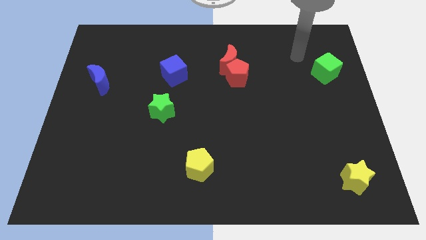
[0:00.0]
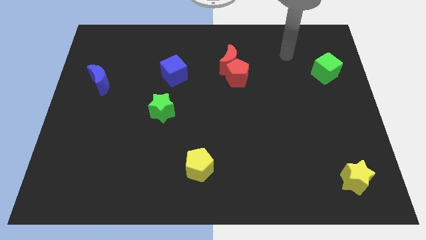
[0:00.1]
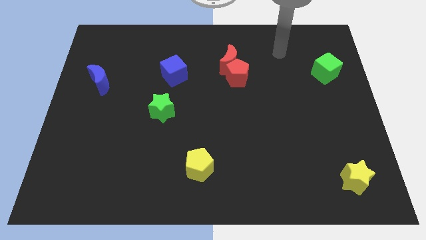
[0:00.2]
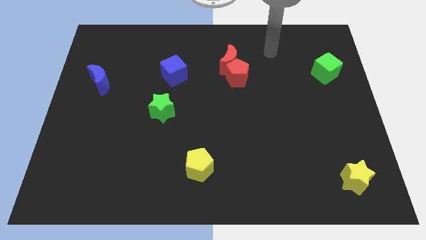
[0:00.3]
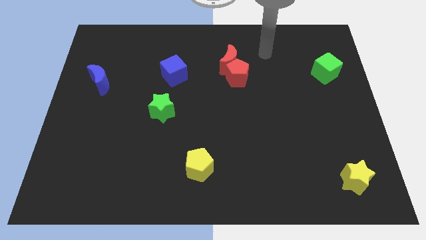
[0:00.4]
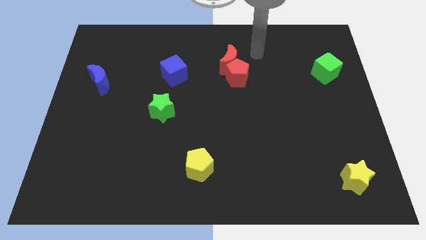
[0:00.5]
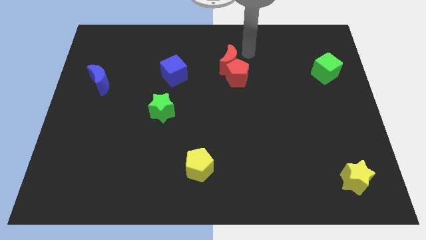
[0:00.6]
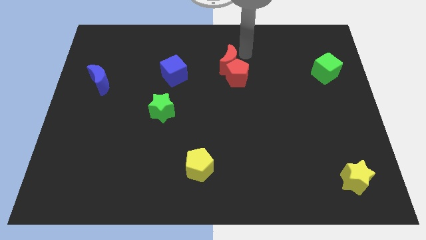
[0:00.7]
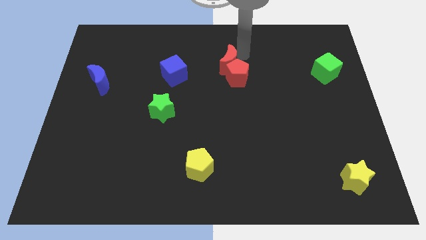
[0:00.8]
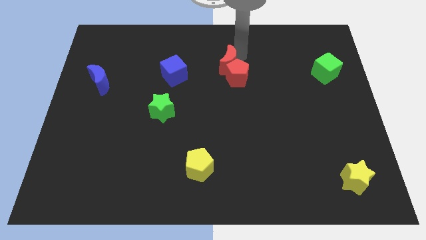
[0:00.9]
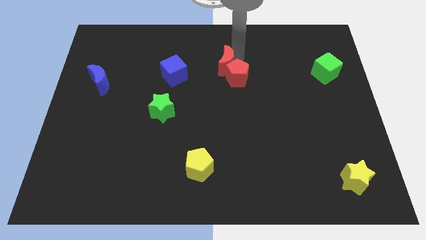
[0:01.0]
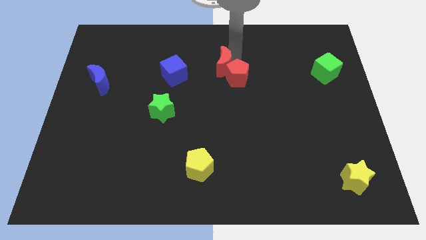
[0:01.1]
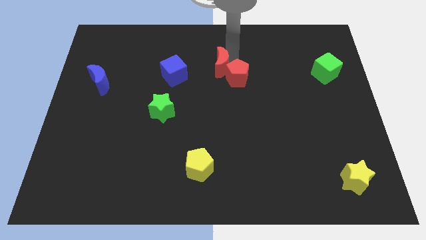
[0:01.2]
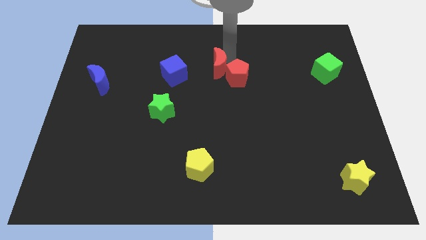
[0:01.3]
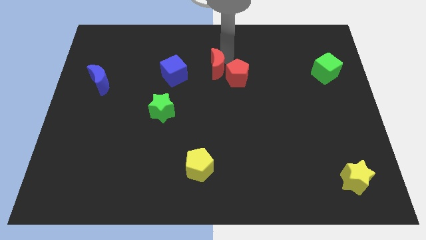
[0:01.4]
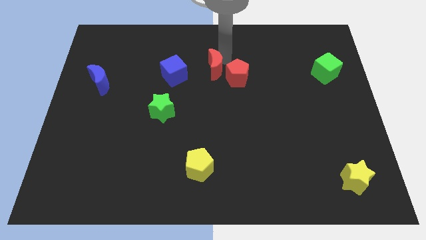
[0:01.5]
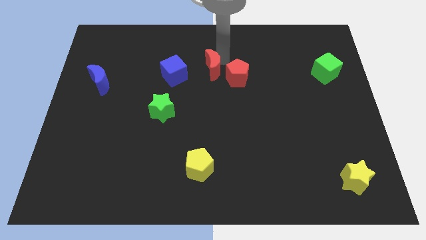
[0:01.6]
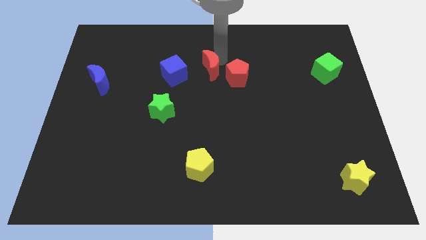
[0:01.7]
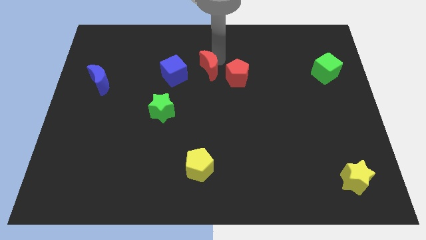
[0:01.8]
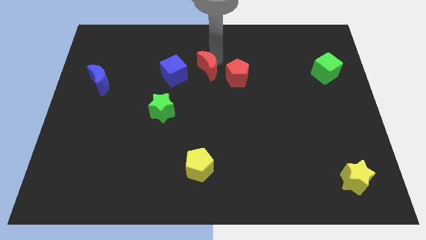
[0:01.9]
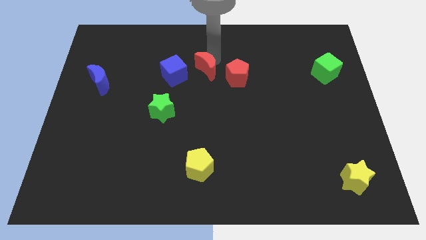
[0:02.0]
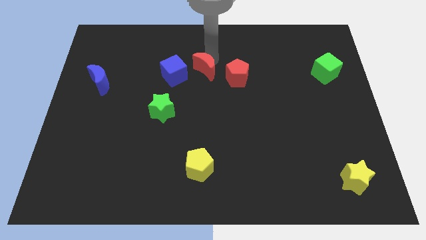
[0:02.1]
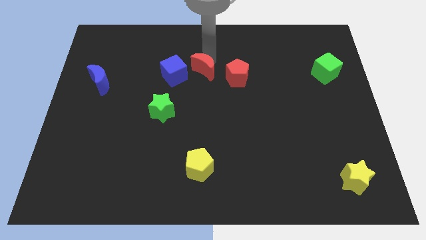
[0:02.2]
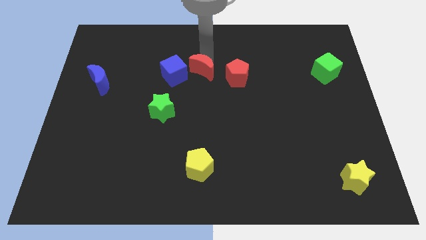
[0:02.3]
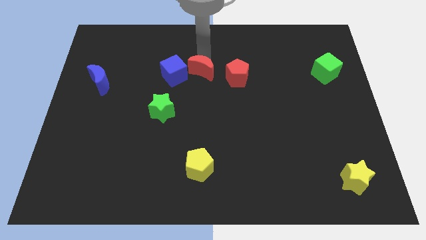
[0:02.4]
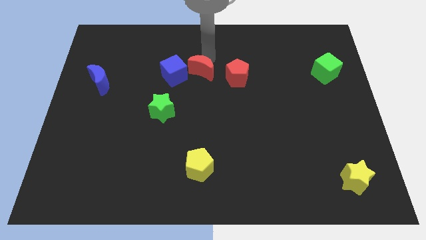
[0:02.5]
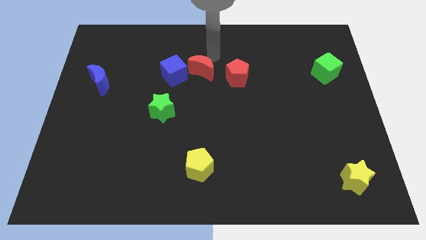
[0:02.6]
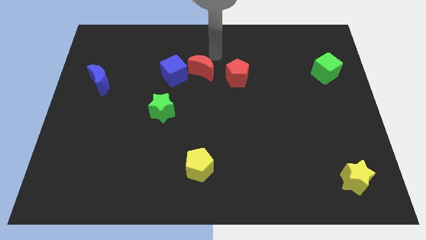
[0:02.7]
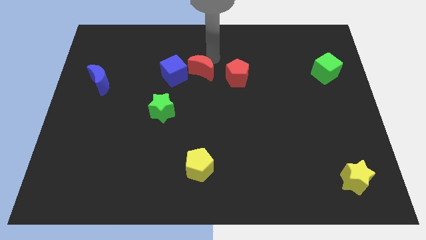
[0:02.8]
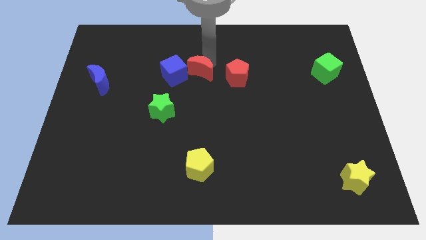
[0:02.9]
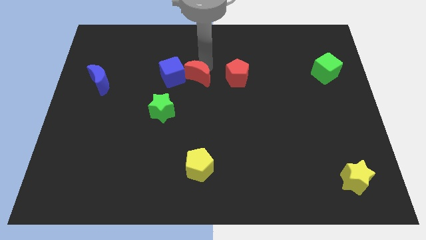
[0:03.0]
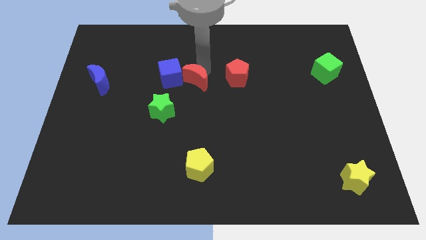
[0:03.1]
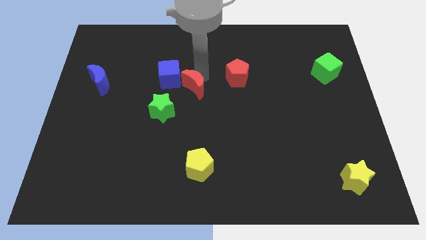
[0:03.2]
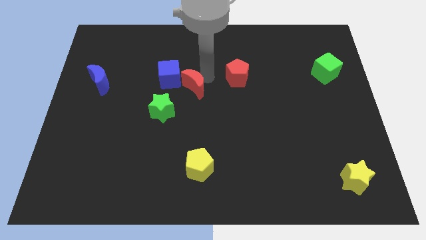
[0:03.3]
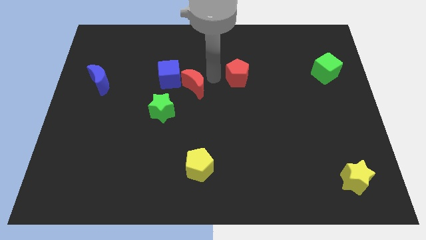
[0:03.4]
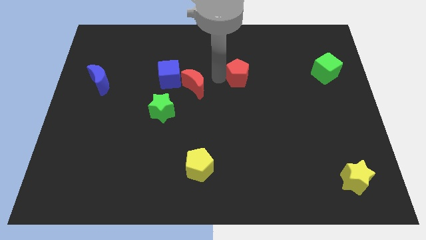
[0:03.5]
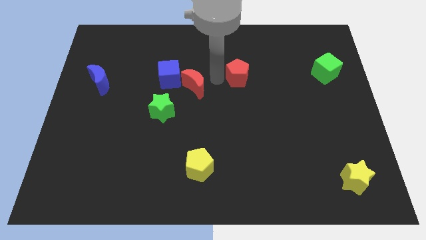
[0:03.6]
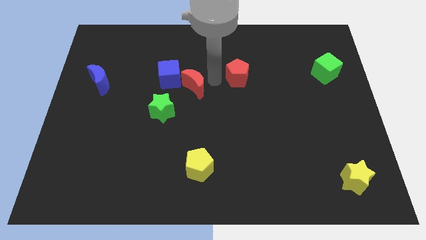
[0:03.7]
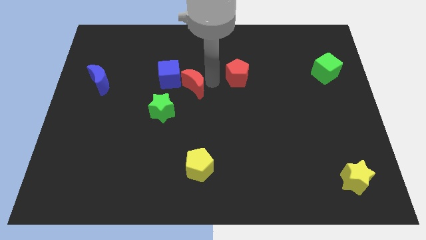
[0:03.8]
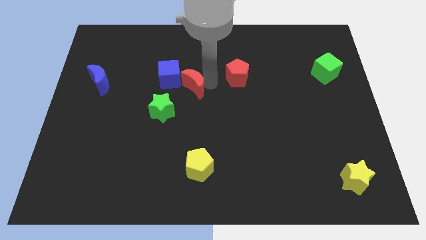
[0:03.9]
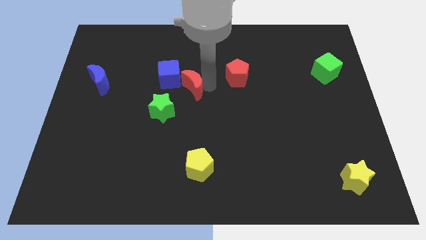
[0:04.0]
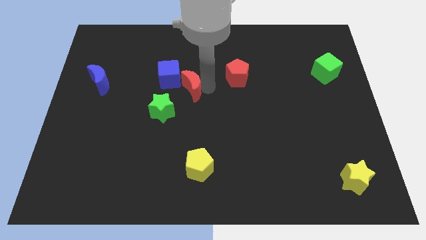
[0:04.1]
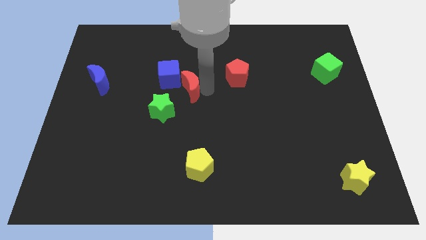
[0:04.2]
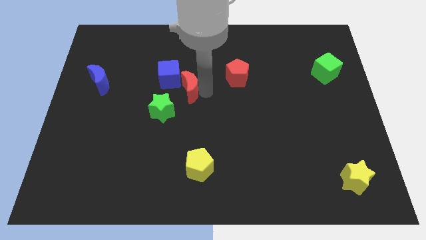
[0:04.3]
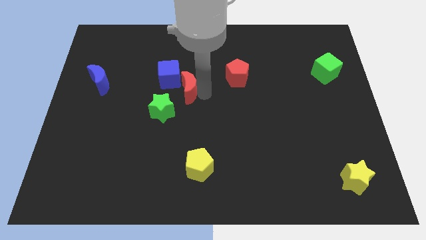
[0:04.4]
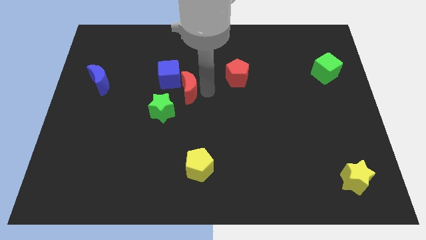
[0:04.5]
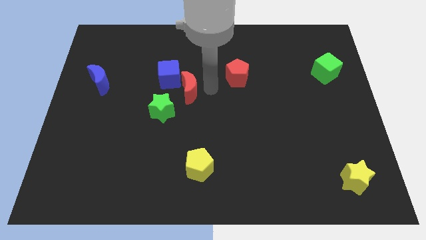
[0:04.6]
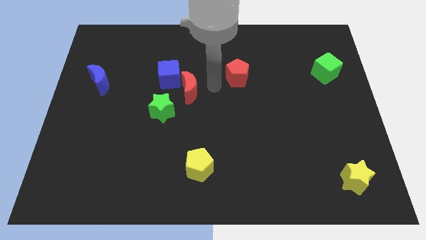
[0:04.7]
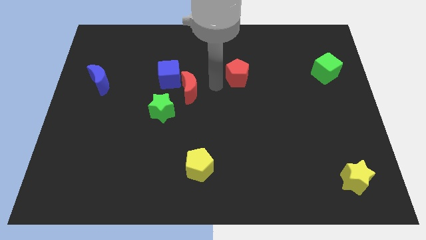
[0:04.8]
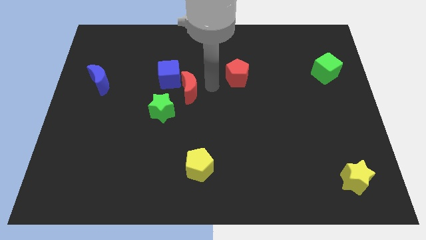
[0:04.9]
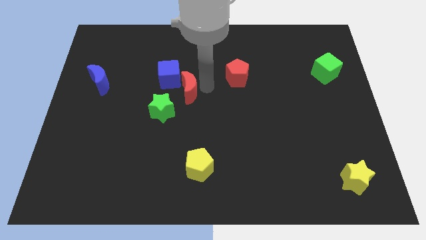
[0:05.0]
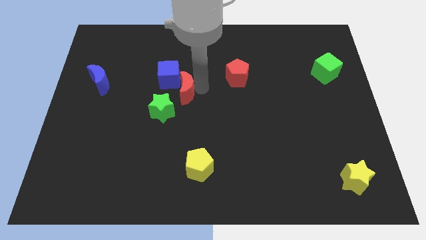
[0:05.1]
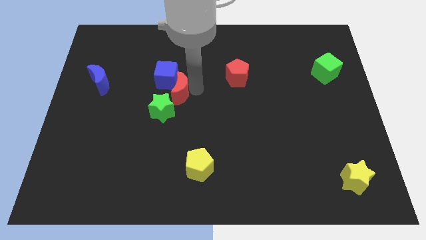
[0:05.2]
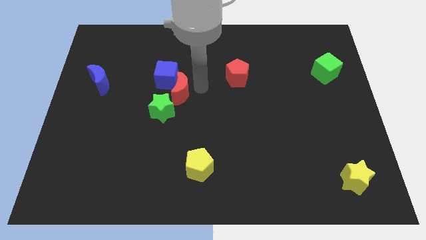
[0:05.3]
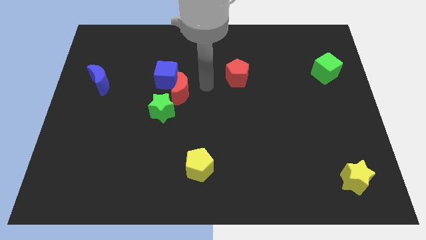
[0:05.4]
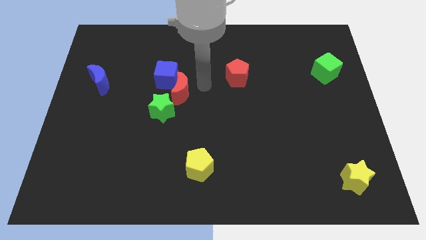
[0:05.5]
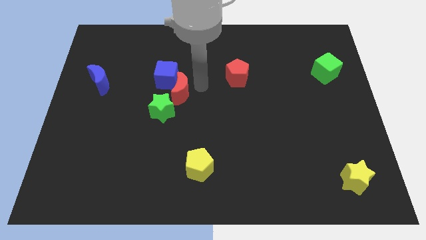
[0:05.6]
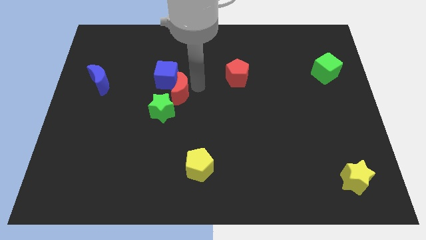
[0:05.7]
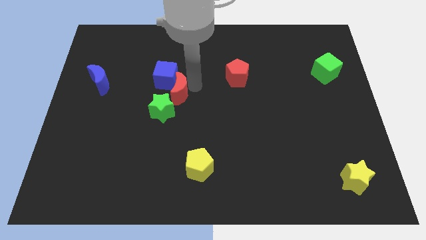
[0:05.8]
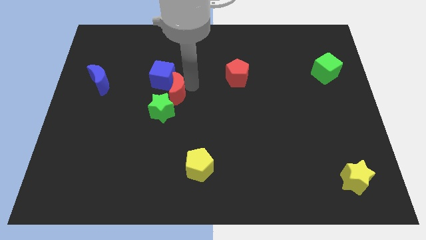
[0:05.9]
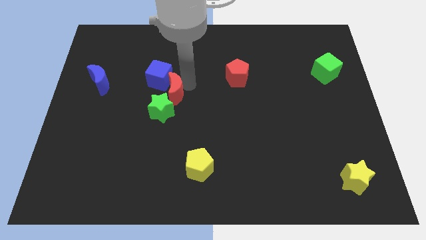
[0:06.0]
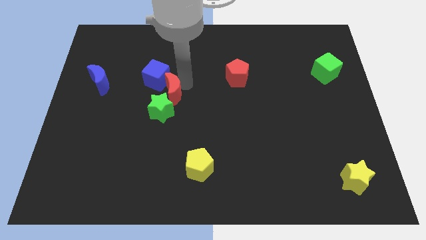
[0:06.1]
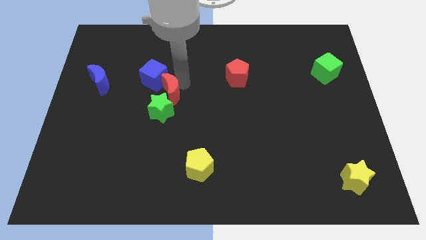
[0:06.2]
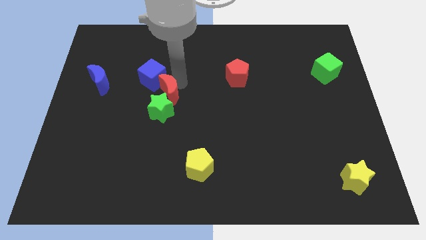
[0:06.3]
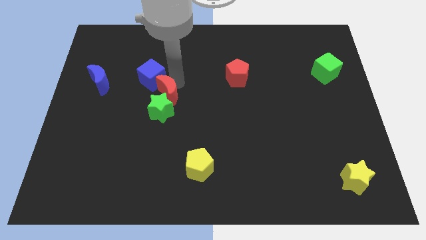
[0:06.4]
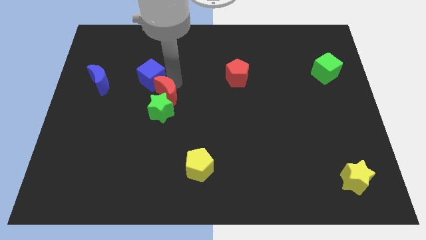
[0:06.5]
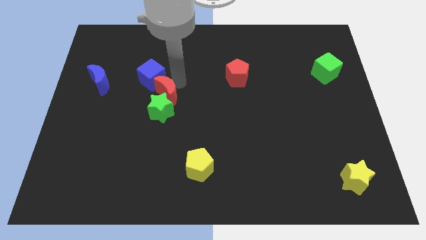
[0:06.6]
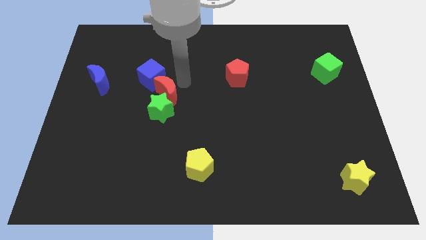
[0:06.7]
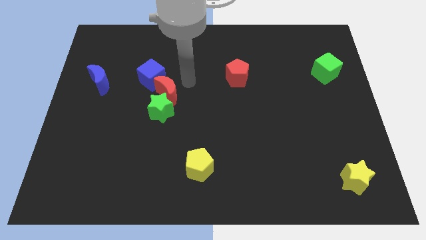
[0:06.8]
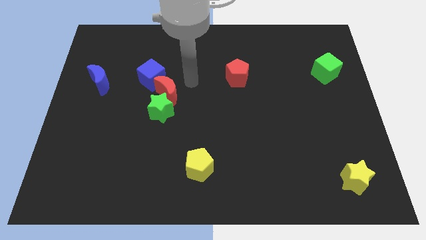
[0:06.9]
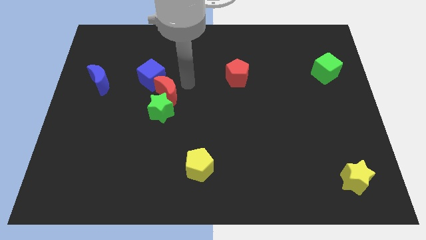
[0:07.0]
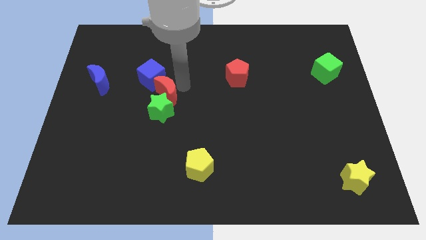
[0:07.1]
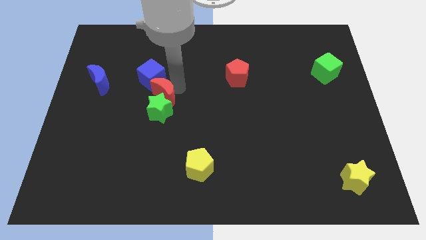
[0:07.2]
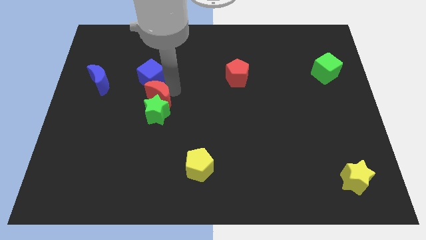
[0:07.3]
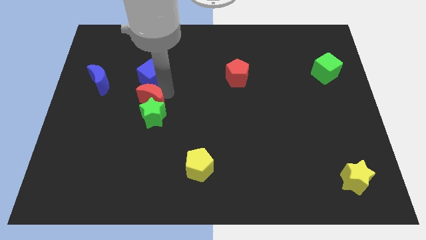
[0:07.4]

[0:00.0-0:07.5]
move the red moon downwards and then left

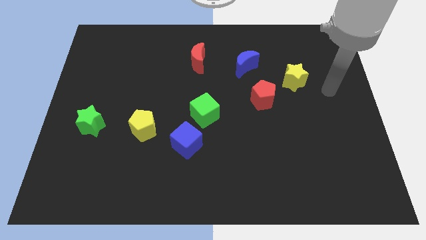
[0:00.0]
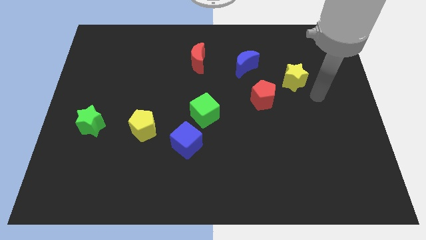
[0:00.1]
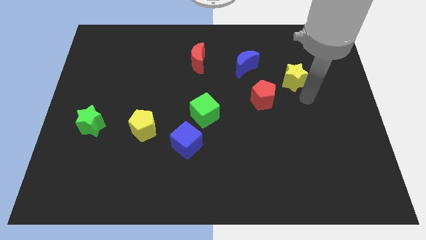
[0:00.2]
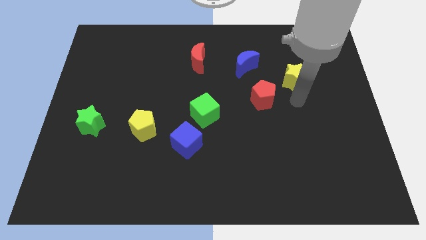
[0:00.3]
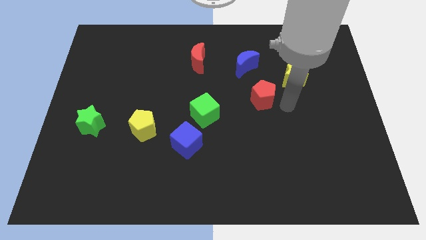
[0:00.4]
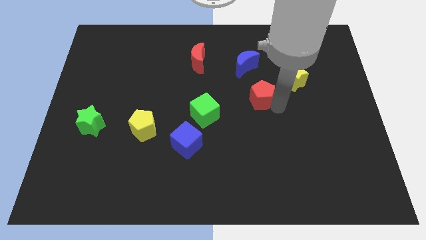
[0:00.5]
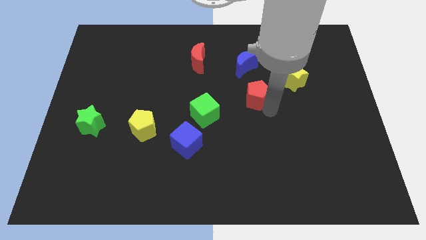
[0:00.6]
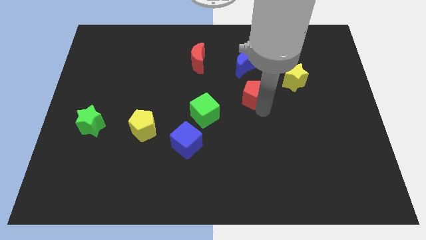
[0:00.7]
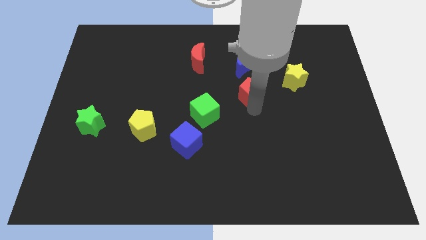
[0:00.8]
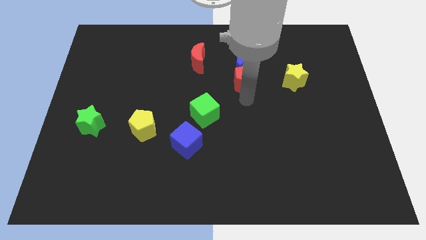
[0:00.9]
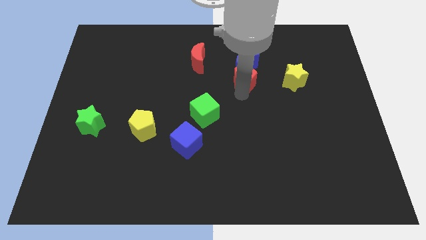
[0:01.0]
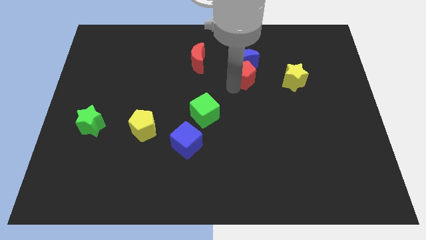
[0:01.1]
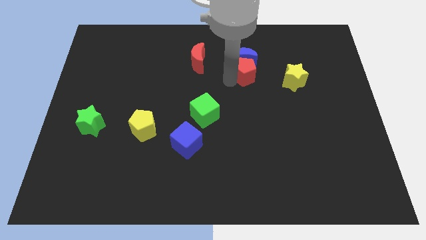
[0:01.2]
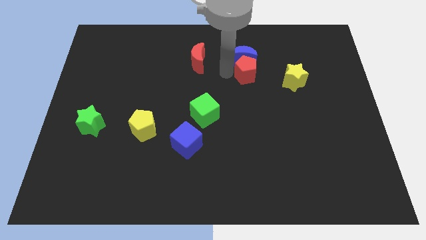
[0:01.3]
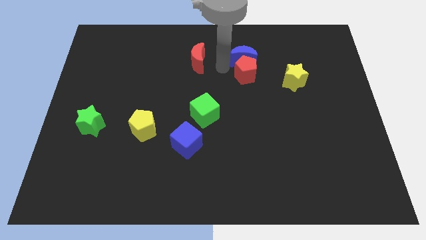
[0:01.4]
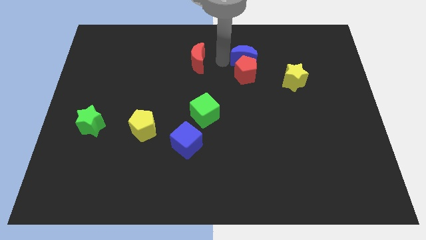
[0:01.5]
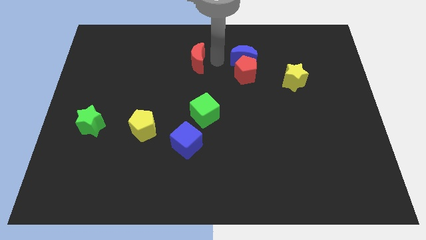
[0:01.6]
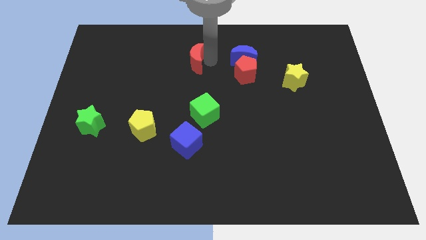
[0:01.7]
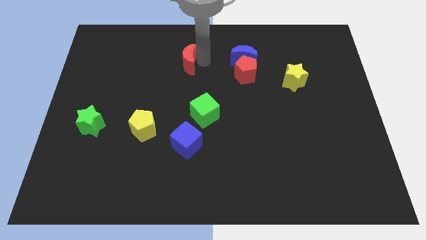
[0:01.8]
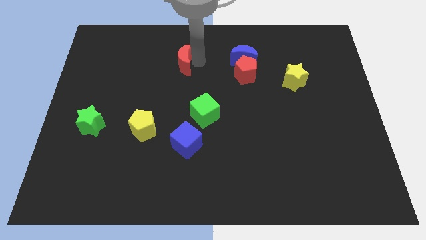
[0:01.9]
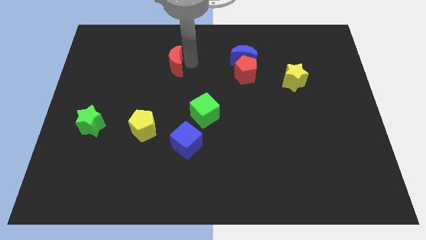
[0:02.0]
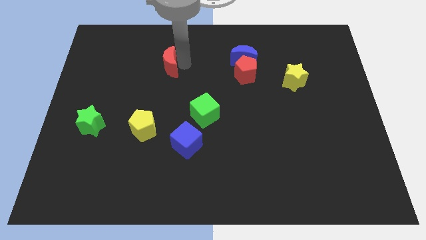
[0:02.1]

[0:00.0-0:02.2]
slightly push the red moon left
